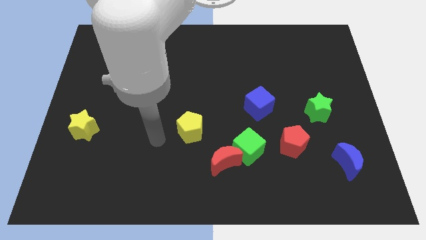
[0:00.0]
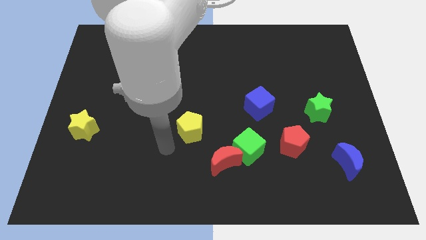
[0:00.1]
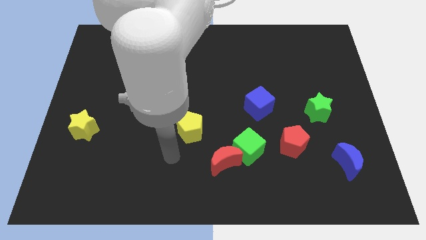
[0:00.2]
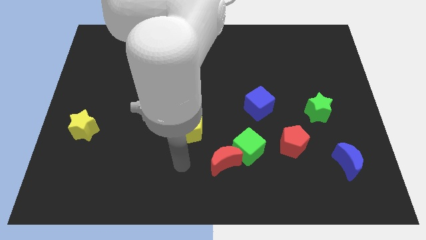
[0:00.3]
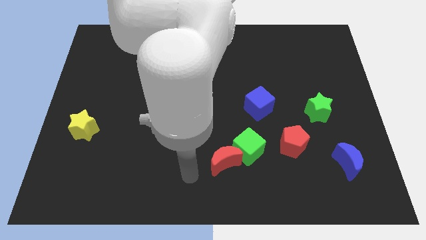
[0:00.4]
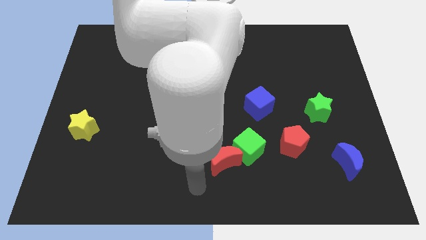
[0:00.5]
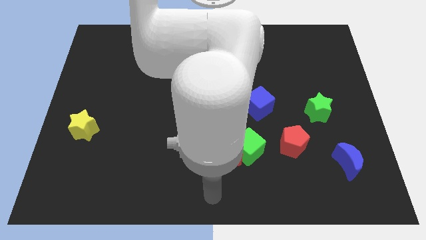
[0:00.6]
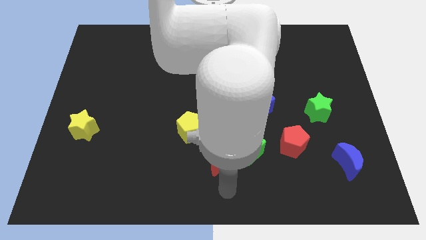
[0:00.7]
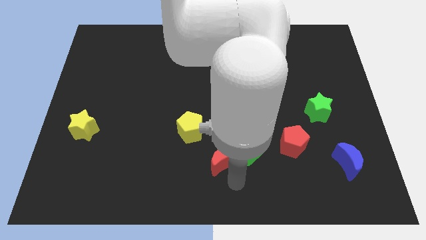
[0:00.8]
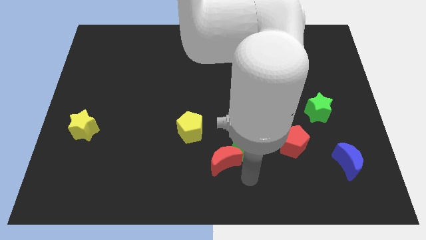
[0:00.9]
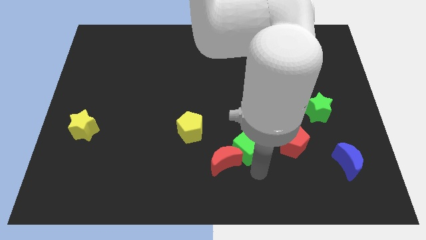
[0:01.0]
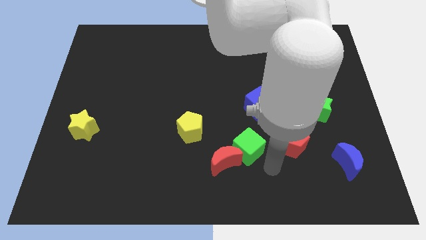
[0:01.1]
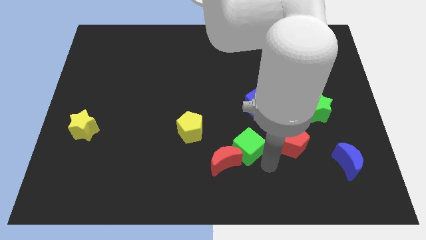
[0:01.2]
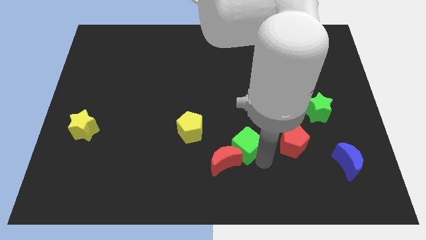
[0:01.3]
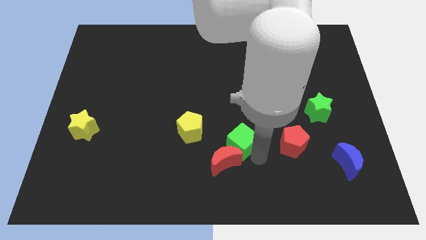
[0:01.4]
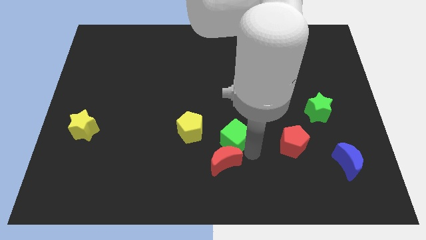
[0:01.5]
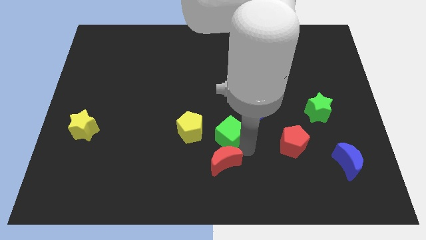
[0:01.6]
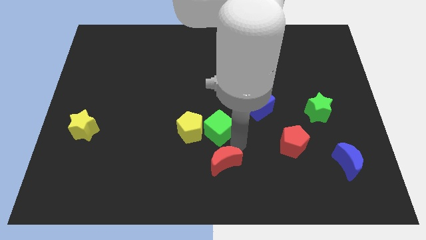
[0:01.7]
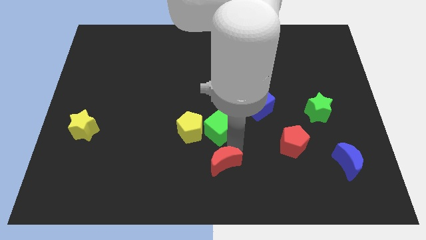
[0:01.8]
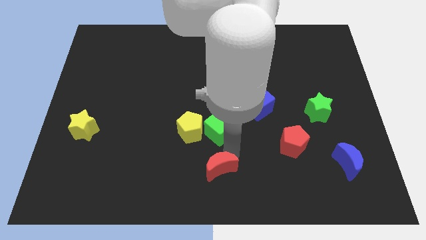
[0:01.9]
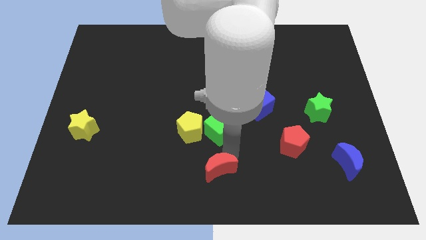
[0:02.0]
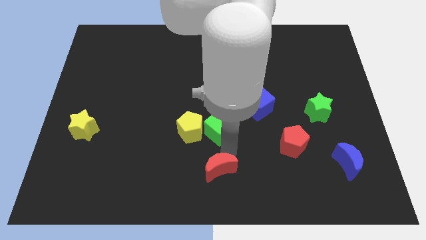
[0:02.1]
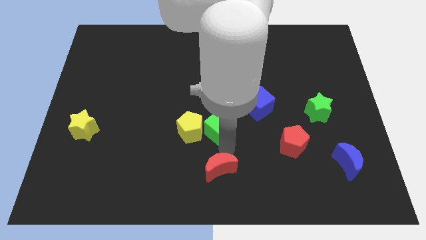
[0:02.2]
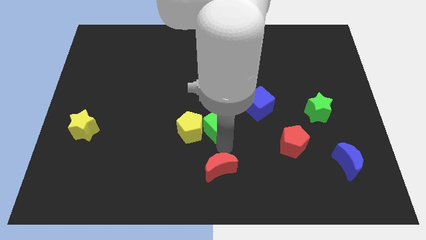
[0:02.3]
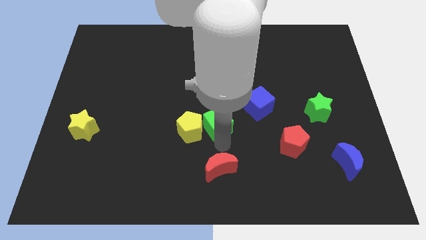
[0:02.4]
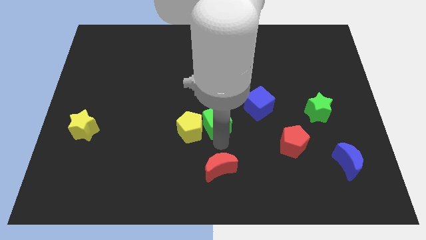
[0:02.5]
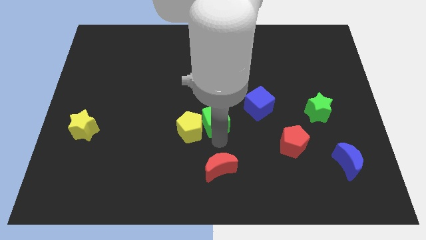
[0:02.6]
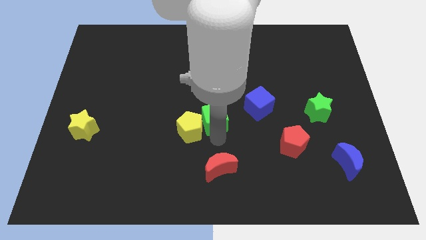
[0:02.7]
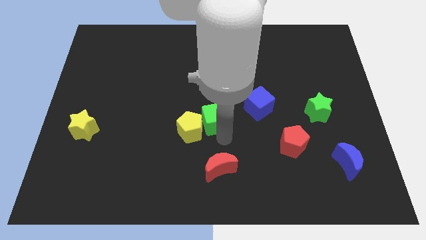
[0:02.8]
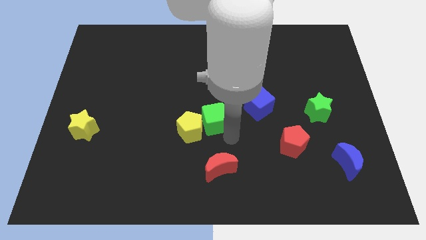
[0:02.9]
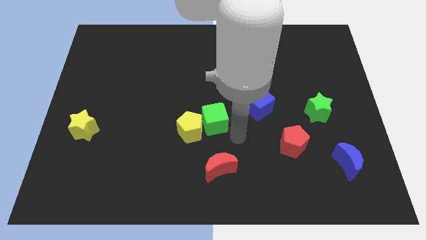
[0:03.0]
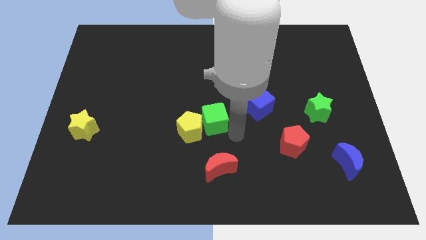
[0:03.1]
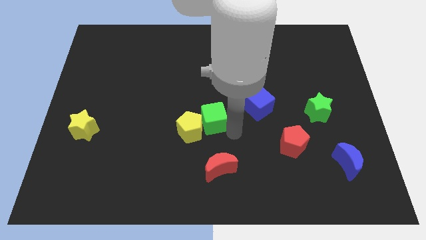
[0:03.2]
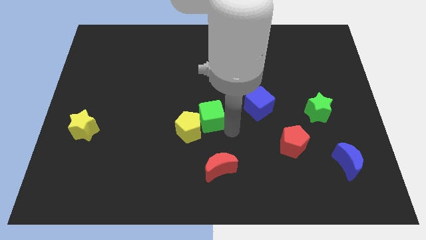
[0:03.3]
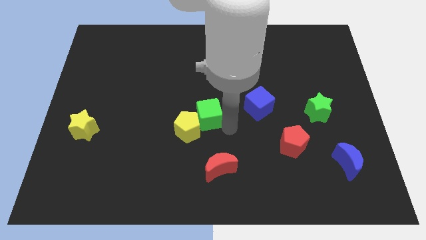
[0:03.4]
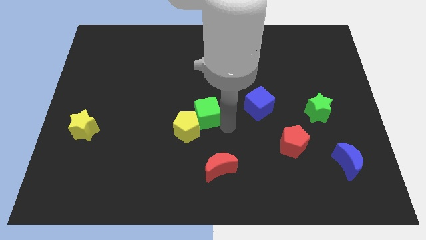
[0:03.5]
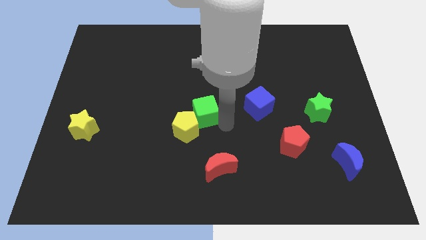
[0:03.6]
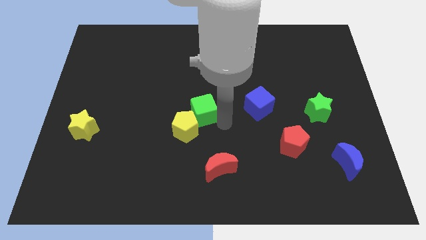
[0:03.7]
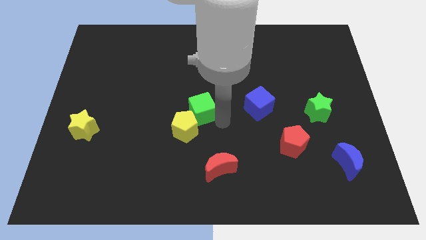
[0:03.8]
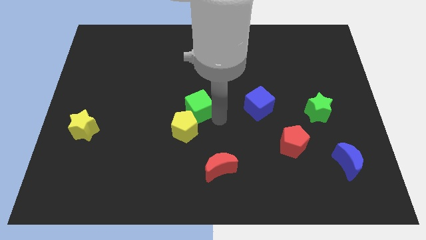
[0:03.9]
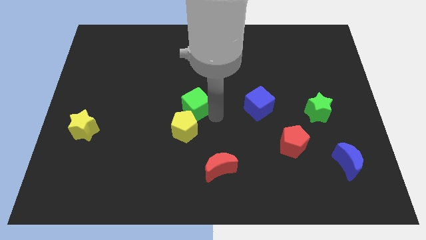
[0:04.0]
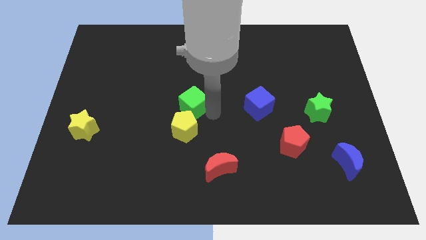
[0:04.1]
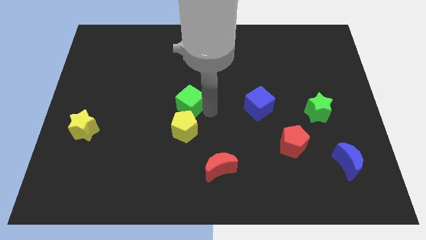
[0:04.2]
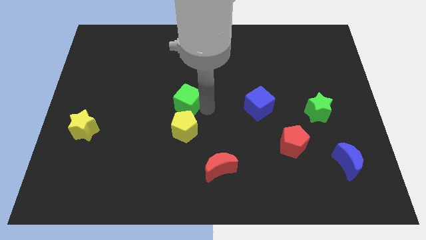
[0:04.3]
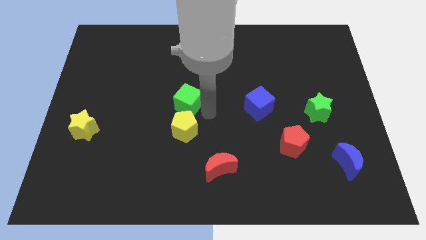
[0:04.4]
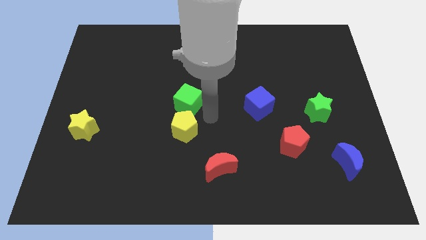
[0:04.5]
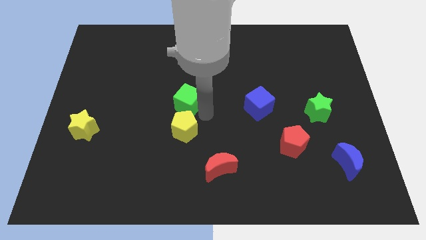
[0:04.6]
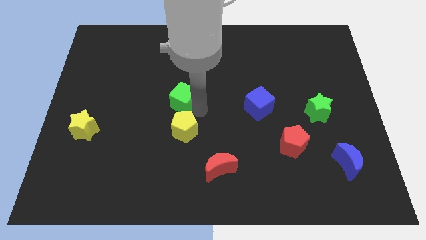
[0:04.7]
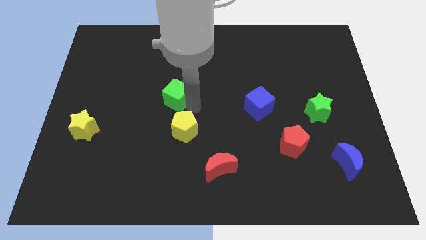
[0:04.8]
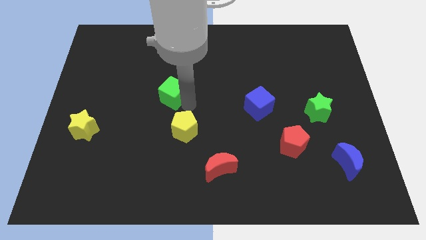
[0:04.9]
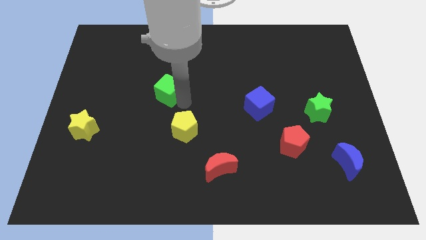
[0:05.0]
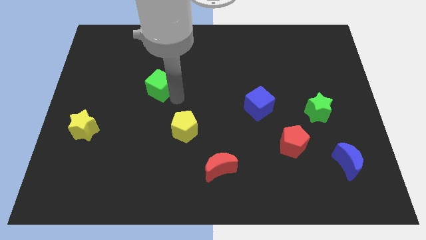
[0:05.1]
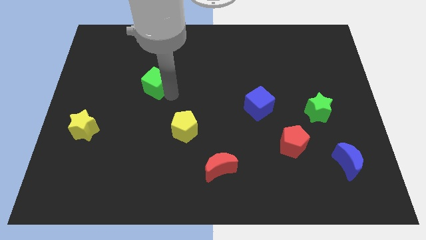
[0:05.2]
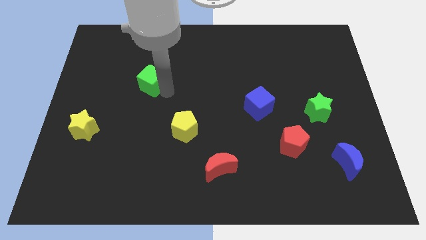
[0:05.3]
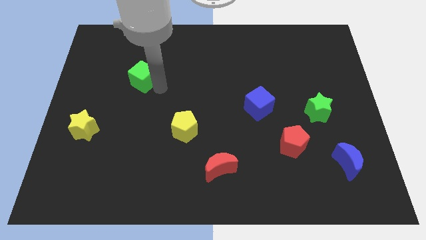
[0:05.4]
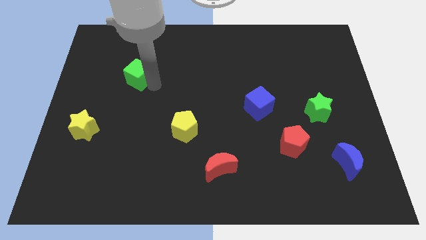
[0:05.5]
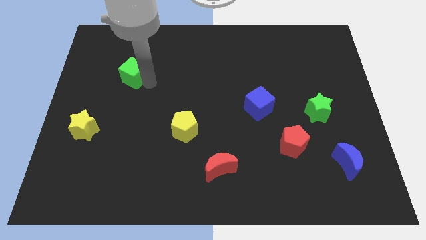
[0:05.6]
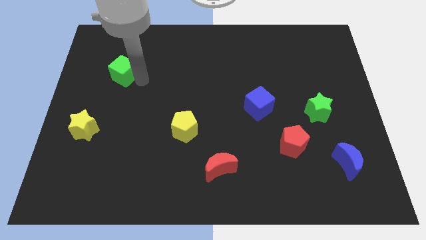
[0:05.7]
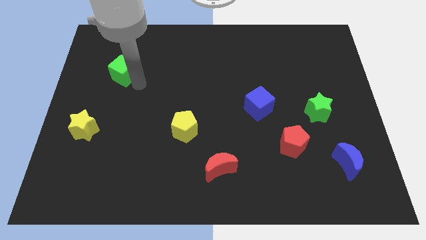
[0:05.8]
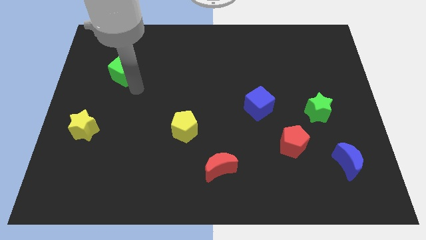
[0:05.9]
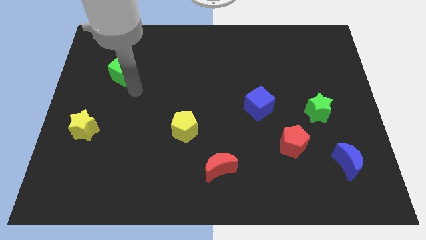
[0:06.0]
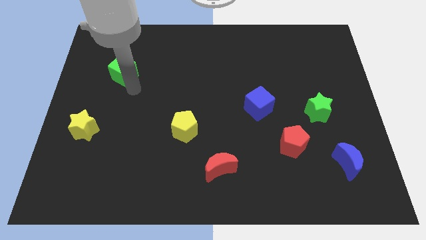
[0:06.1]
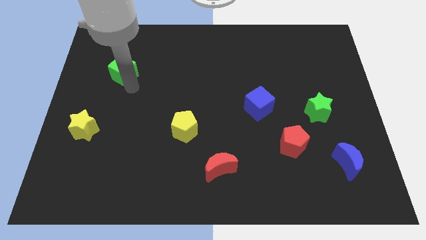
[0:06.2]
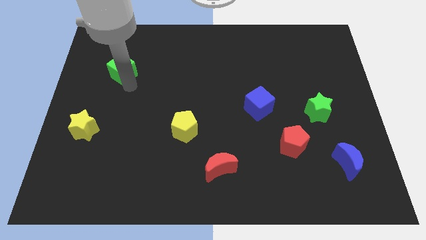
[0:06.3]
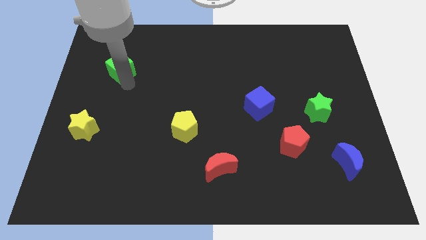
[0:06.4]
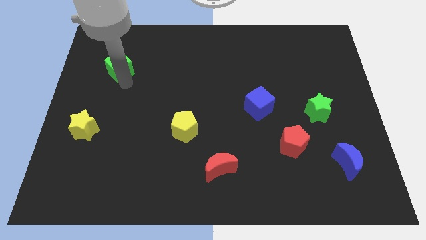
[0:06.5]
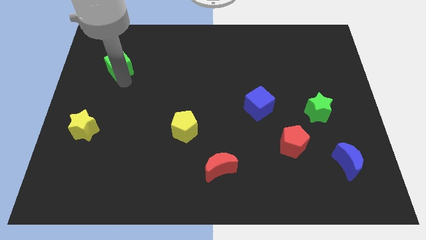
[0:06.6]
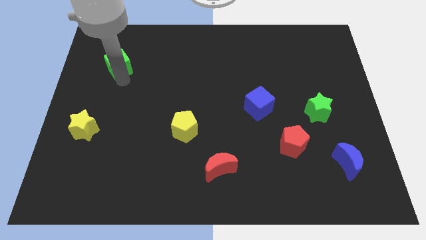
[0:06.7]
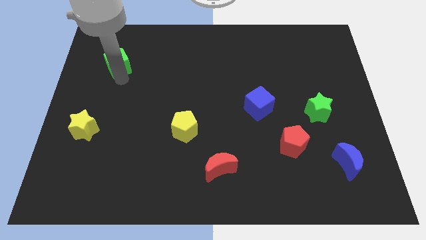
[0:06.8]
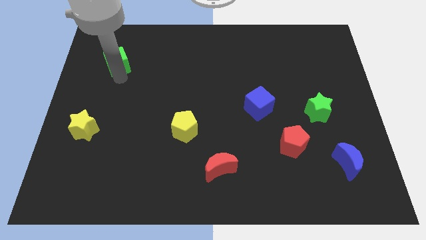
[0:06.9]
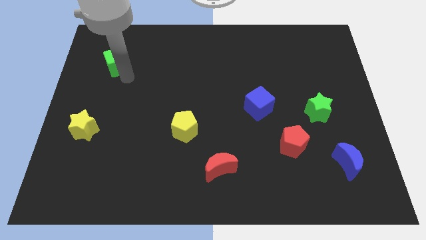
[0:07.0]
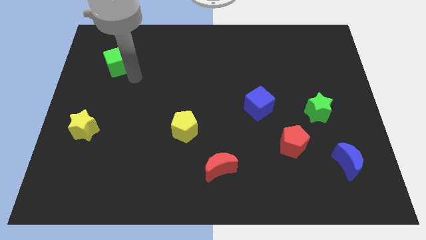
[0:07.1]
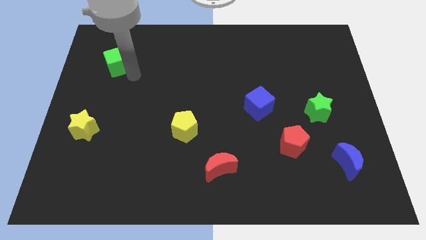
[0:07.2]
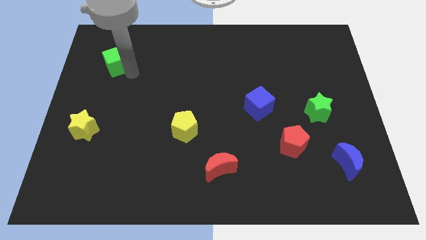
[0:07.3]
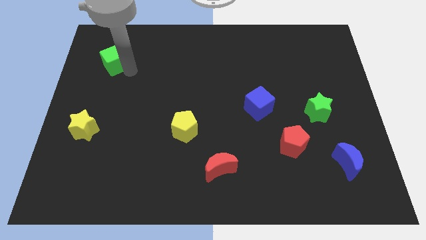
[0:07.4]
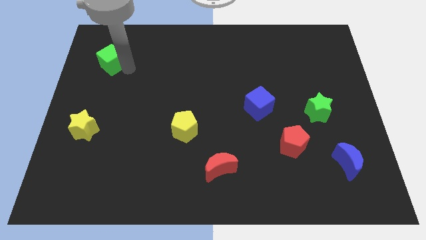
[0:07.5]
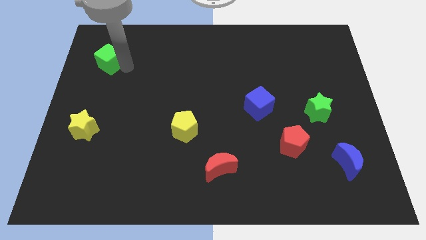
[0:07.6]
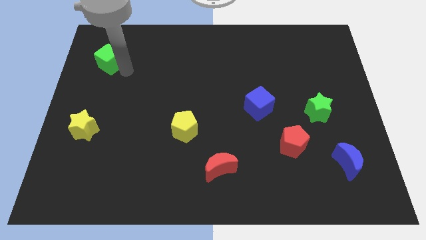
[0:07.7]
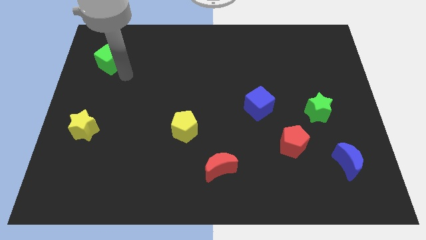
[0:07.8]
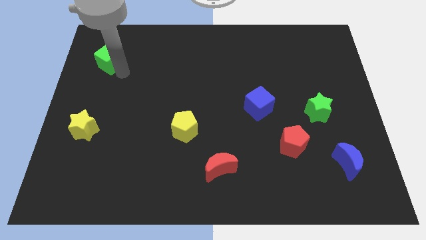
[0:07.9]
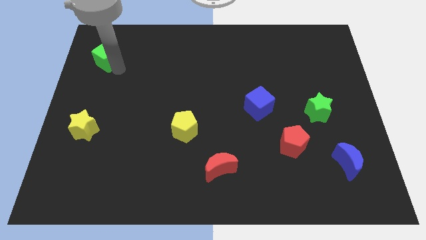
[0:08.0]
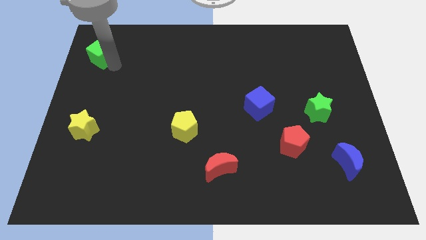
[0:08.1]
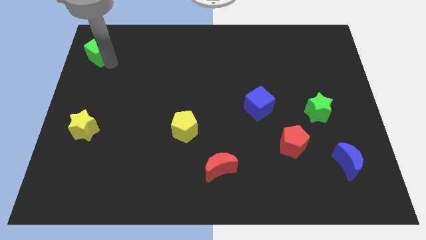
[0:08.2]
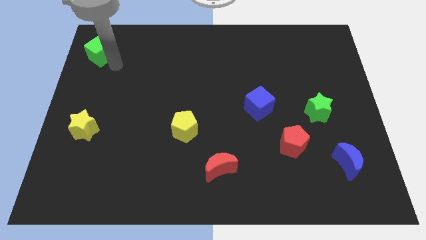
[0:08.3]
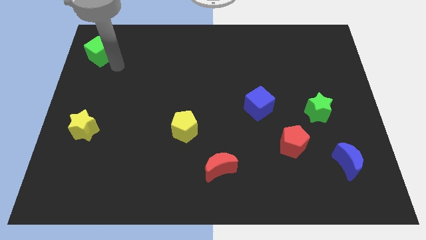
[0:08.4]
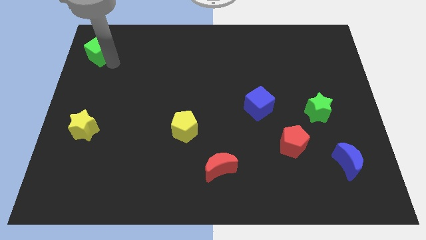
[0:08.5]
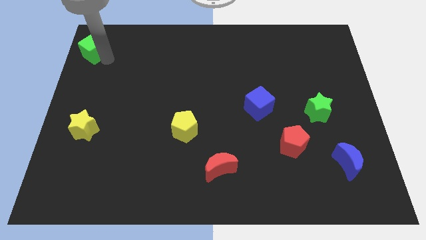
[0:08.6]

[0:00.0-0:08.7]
slide the green cube to the top left
